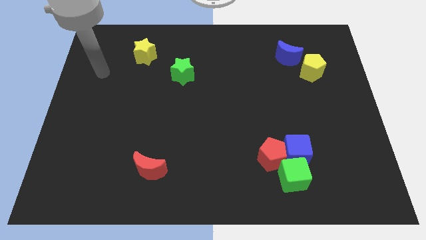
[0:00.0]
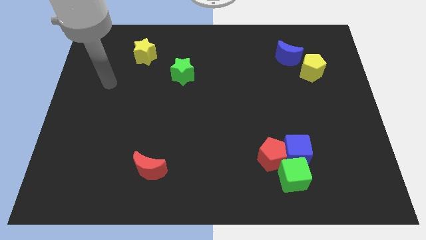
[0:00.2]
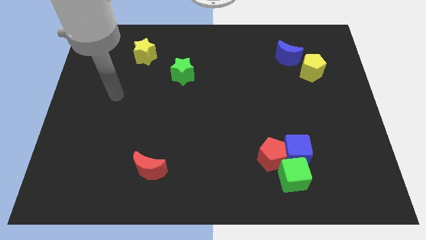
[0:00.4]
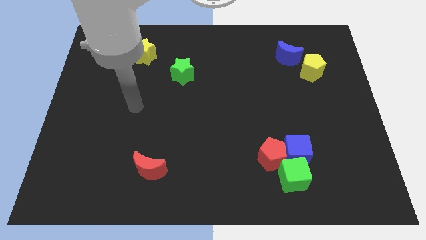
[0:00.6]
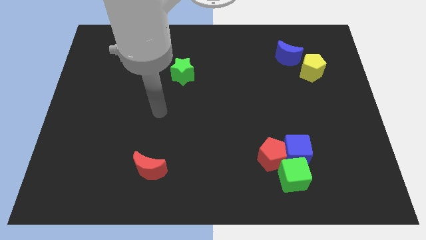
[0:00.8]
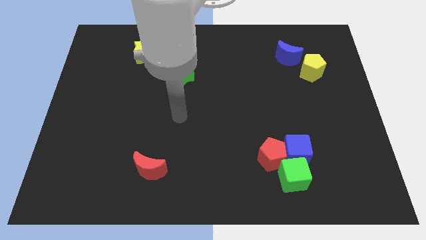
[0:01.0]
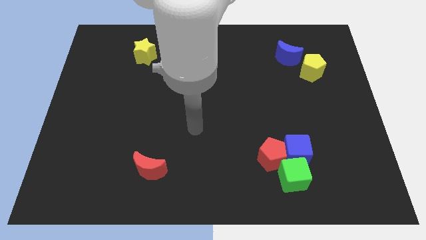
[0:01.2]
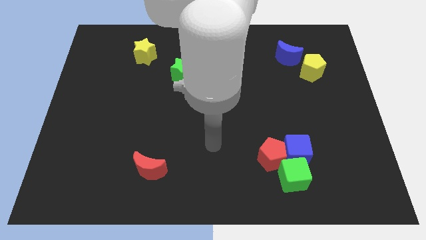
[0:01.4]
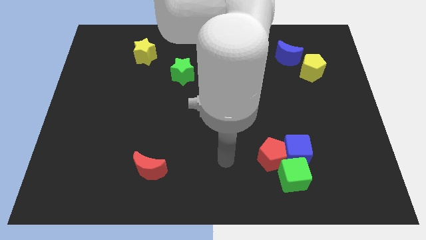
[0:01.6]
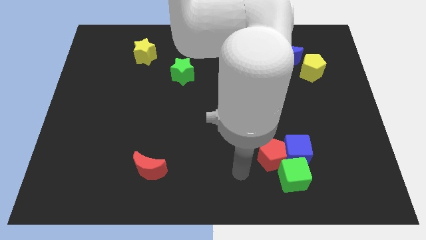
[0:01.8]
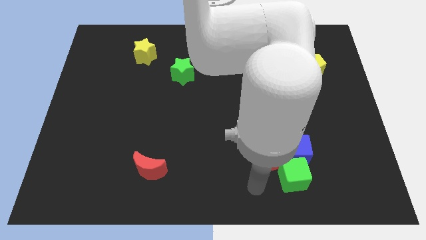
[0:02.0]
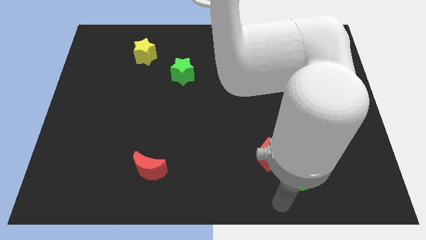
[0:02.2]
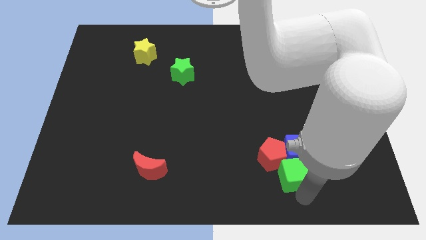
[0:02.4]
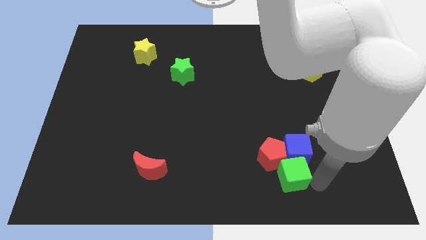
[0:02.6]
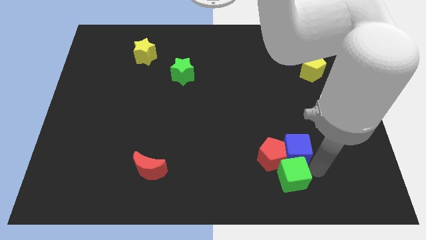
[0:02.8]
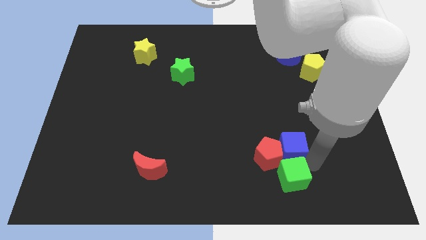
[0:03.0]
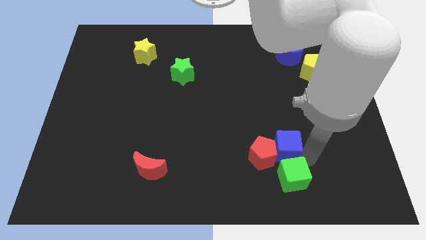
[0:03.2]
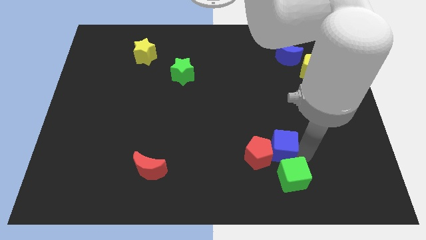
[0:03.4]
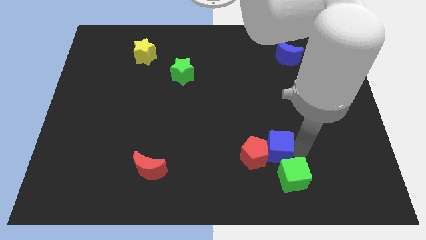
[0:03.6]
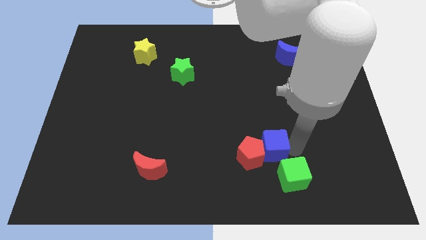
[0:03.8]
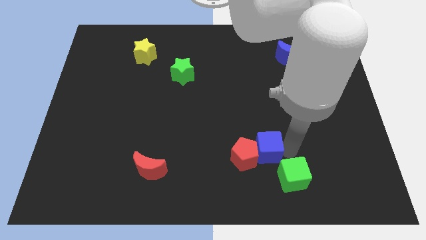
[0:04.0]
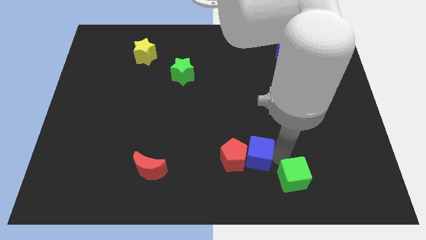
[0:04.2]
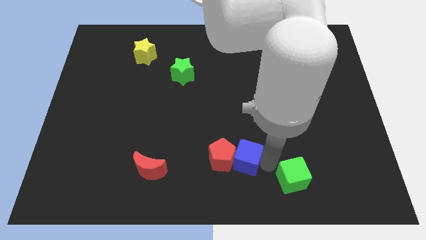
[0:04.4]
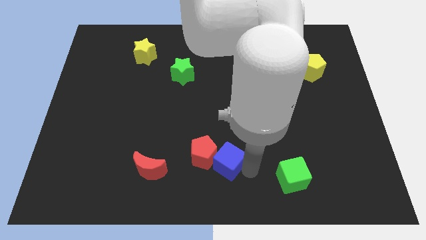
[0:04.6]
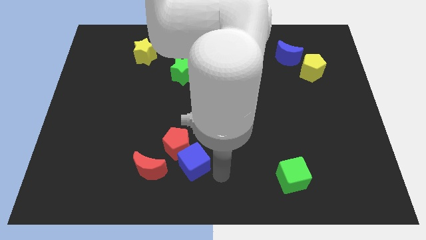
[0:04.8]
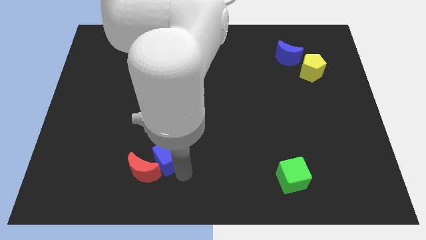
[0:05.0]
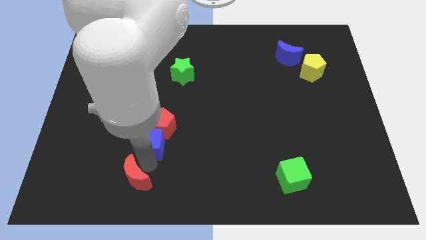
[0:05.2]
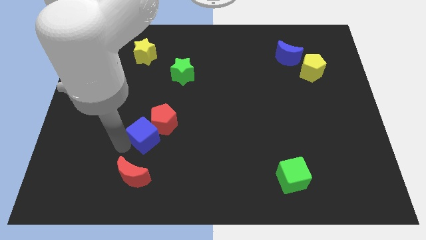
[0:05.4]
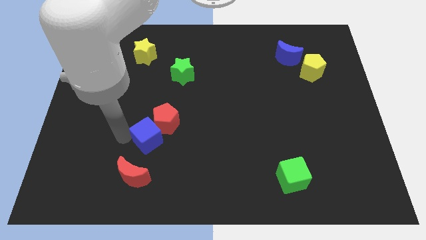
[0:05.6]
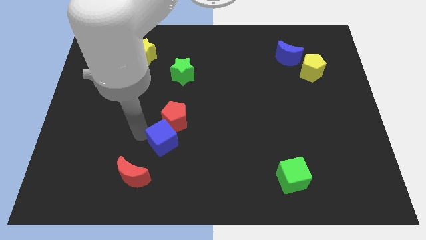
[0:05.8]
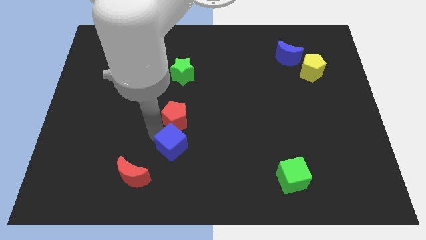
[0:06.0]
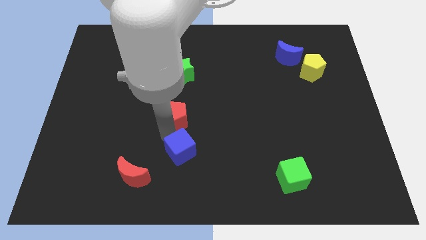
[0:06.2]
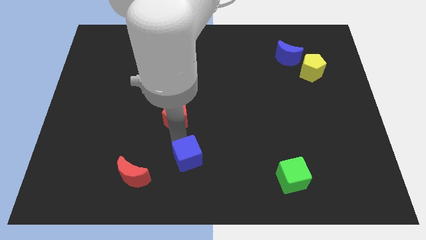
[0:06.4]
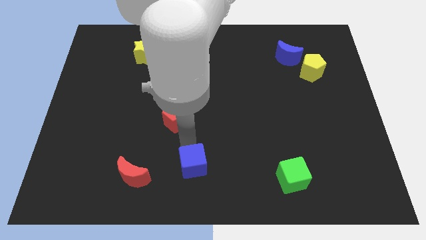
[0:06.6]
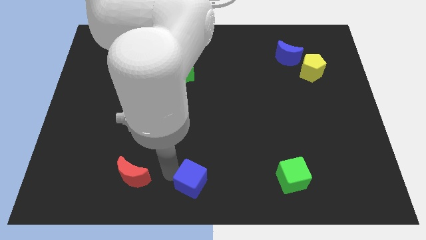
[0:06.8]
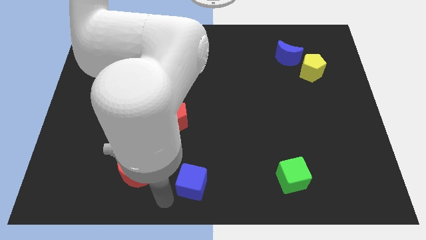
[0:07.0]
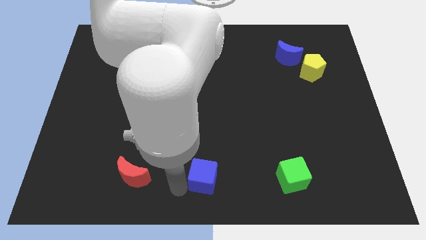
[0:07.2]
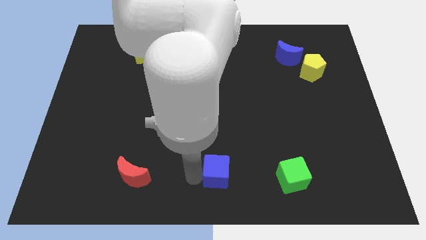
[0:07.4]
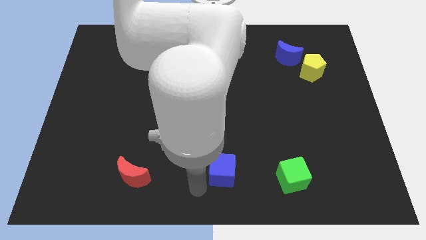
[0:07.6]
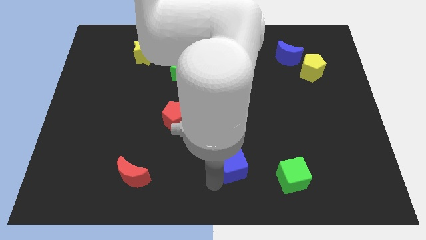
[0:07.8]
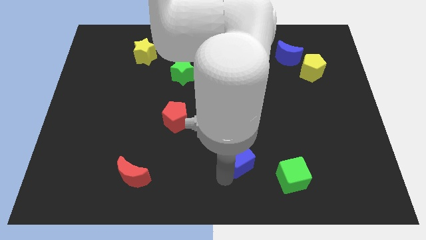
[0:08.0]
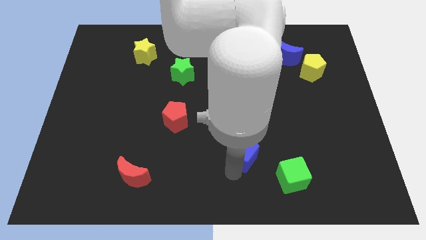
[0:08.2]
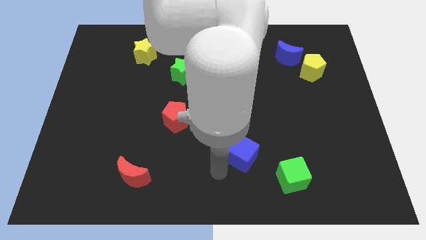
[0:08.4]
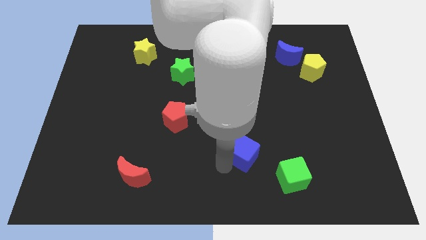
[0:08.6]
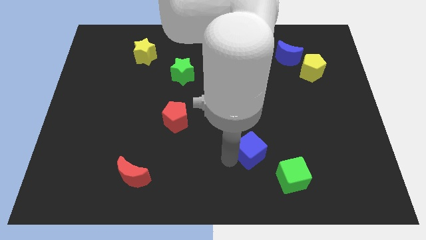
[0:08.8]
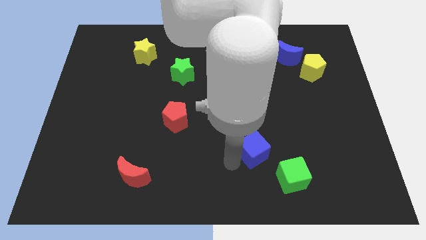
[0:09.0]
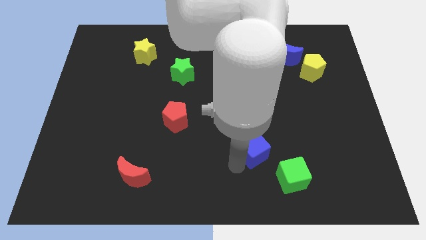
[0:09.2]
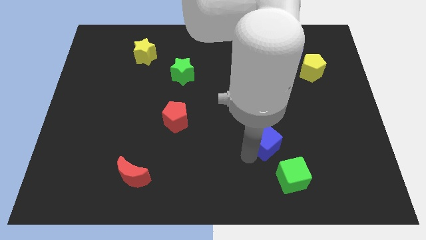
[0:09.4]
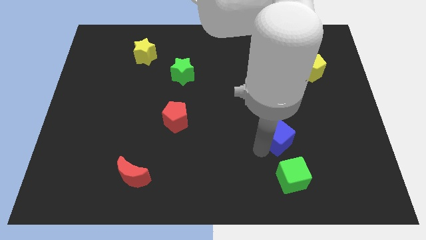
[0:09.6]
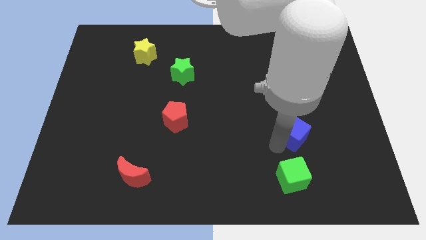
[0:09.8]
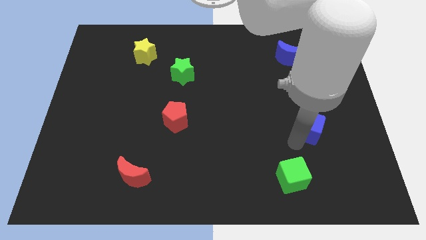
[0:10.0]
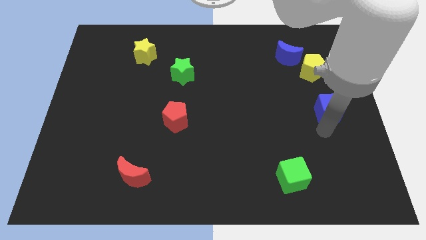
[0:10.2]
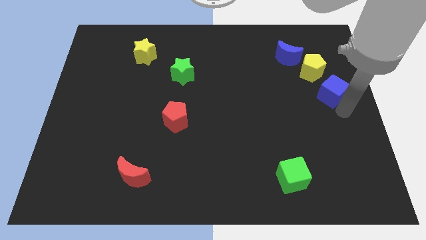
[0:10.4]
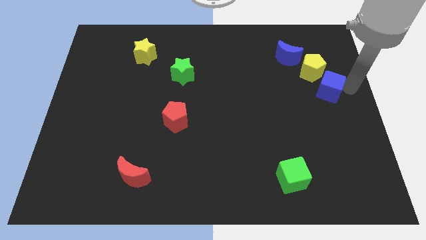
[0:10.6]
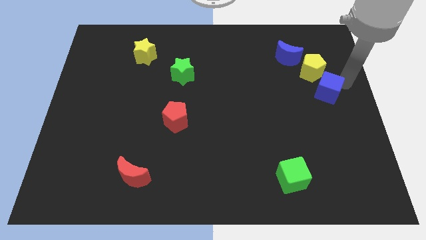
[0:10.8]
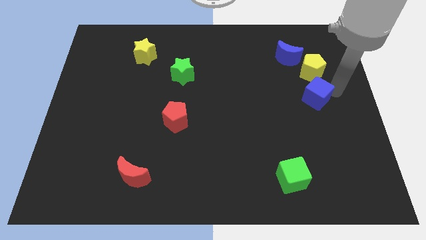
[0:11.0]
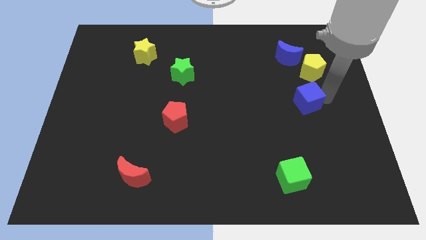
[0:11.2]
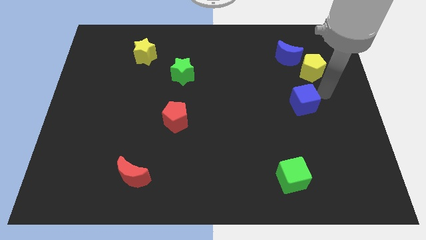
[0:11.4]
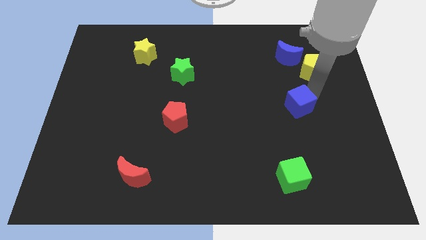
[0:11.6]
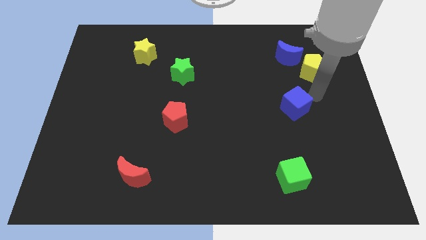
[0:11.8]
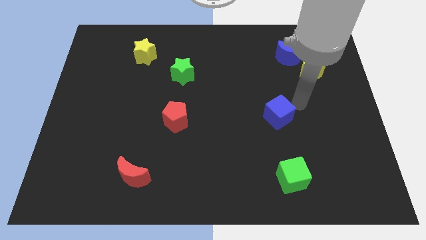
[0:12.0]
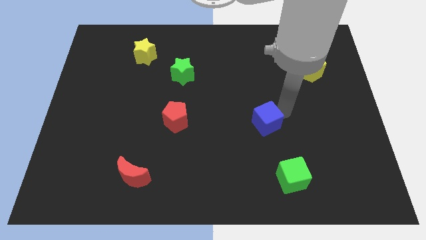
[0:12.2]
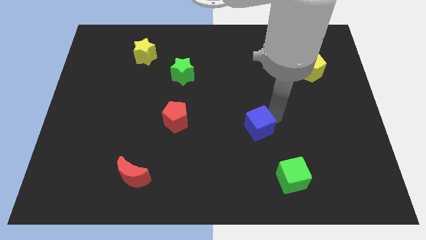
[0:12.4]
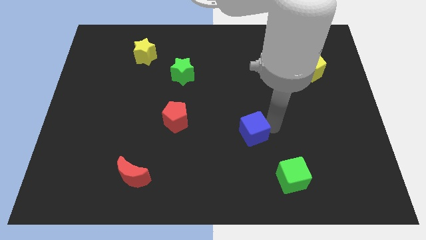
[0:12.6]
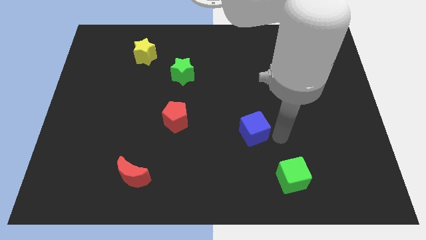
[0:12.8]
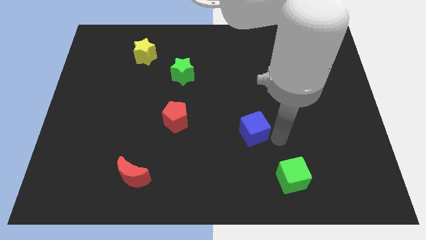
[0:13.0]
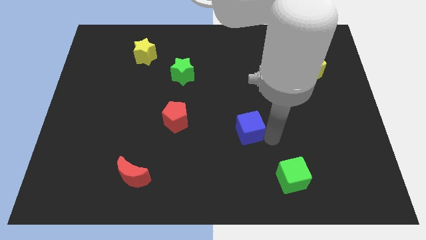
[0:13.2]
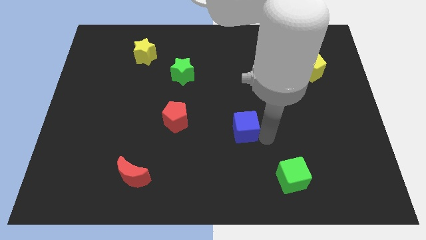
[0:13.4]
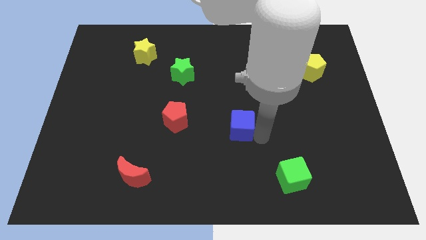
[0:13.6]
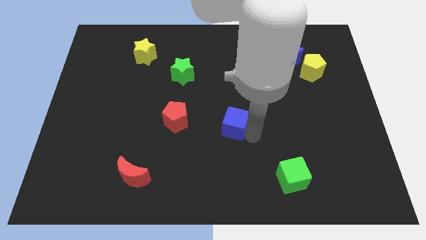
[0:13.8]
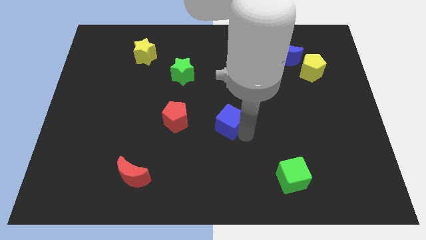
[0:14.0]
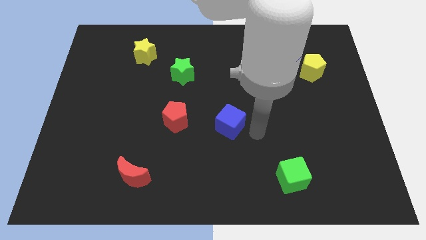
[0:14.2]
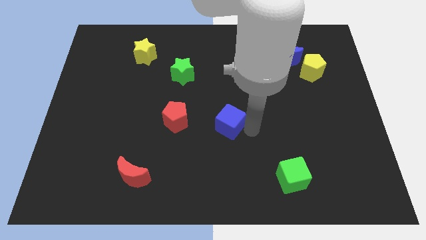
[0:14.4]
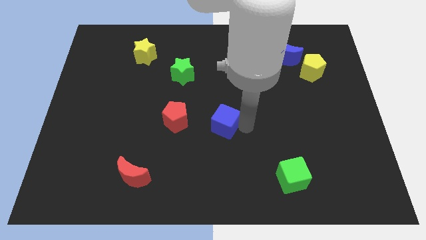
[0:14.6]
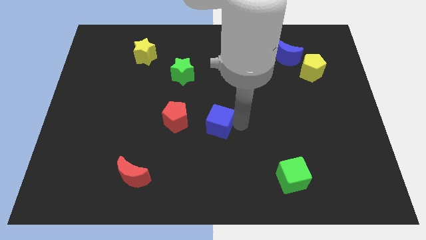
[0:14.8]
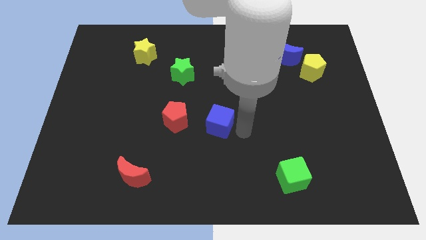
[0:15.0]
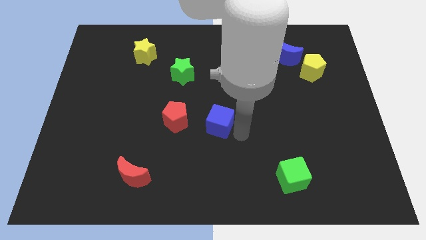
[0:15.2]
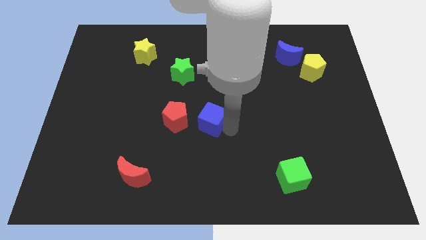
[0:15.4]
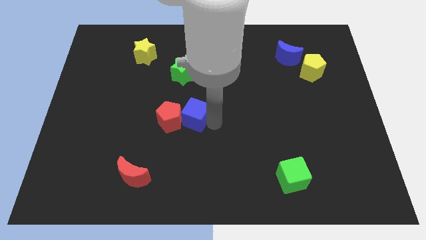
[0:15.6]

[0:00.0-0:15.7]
slide the blue cube to the bottom of the green star
